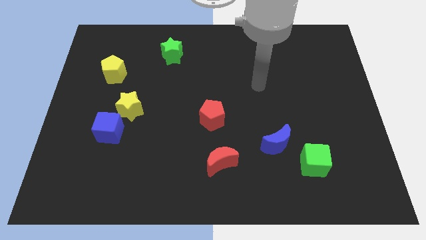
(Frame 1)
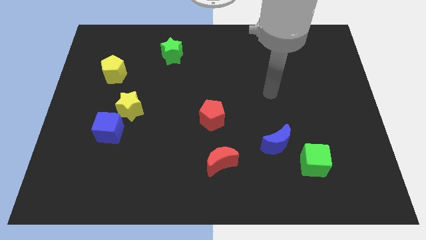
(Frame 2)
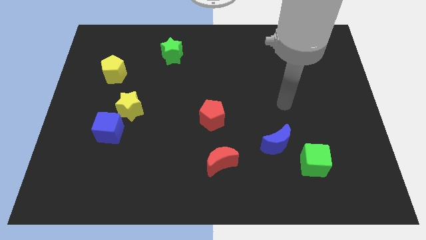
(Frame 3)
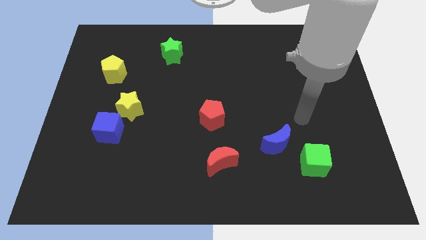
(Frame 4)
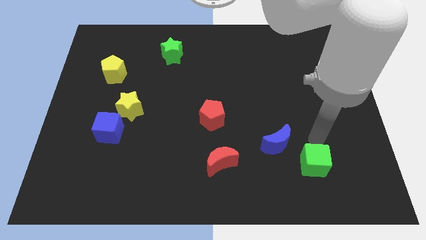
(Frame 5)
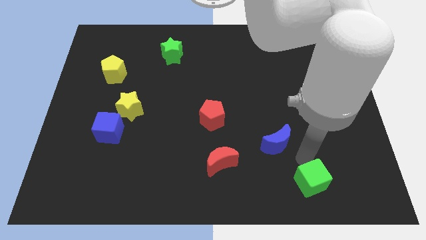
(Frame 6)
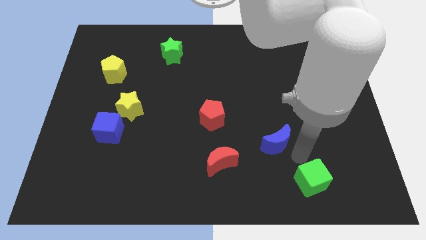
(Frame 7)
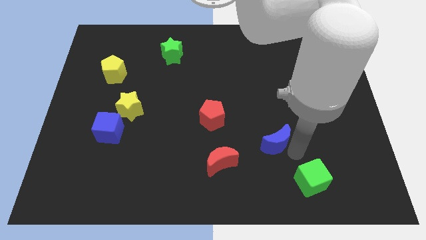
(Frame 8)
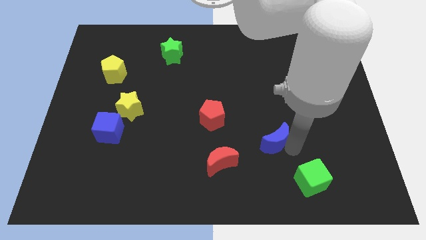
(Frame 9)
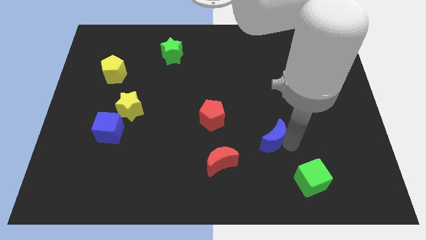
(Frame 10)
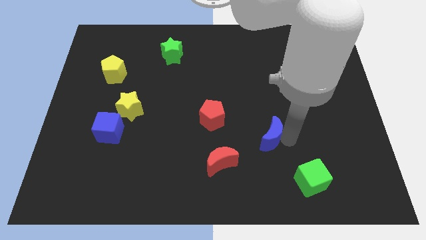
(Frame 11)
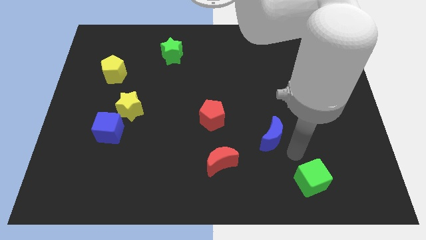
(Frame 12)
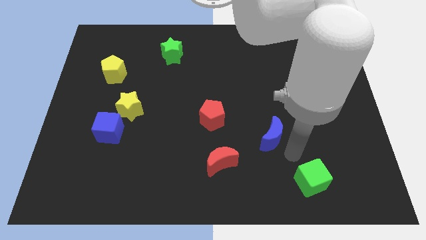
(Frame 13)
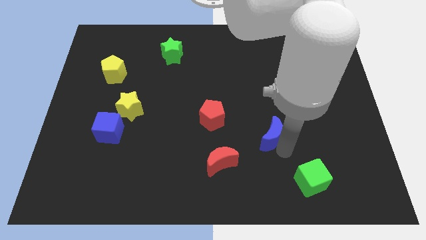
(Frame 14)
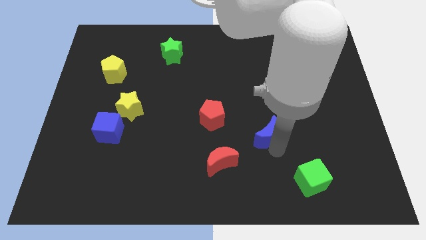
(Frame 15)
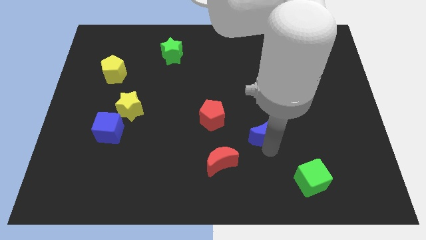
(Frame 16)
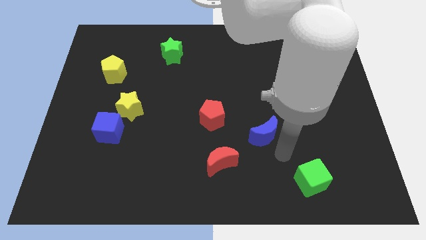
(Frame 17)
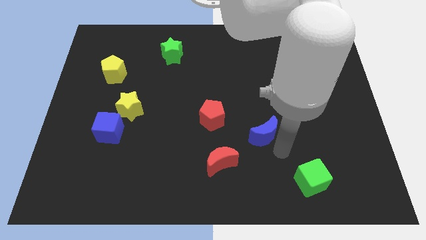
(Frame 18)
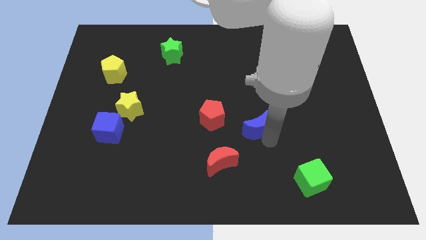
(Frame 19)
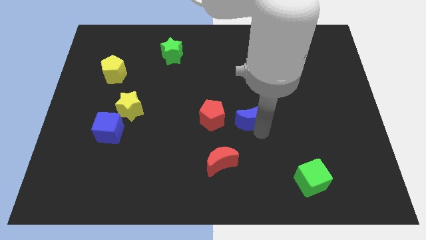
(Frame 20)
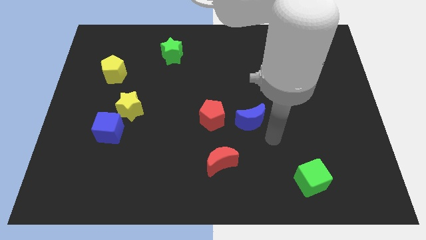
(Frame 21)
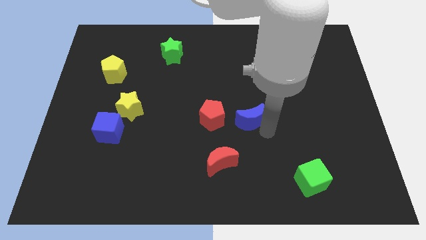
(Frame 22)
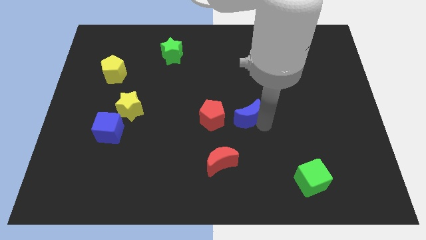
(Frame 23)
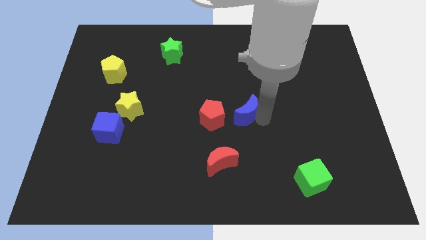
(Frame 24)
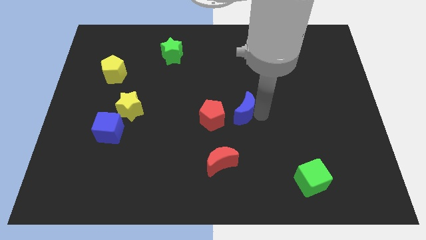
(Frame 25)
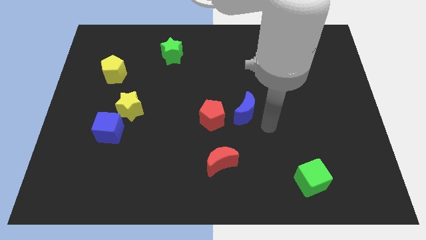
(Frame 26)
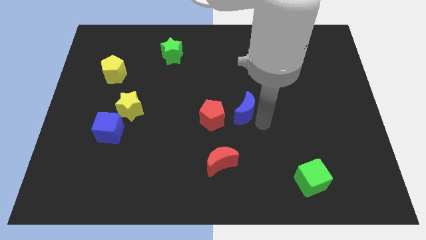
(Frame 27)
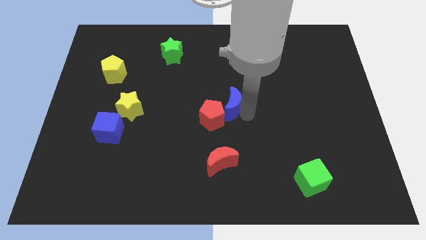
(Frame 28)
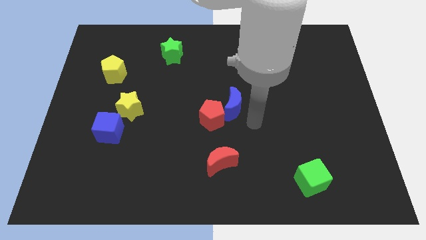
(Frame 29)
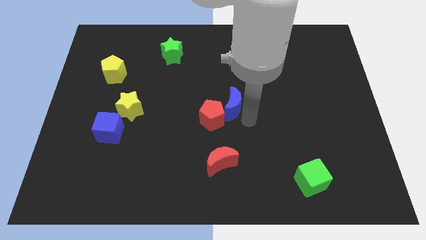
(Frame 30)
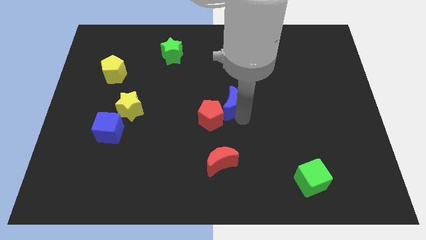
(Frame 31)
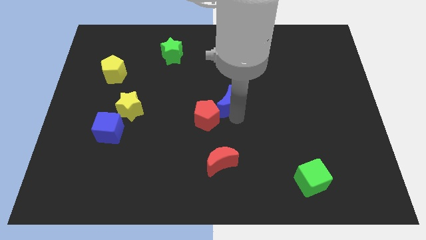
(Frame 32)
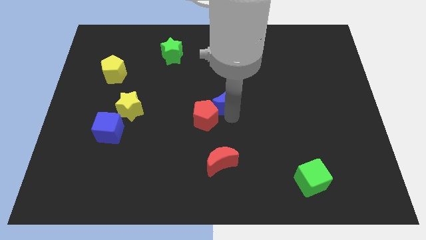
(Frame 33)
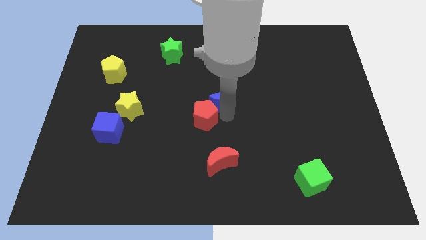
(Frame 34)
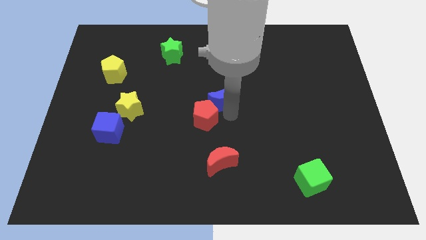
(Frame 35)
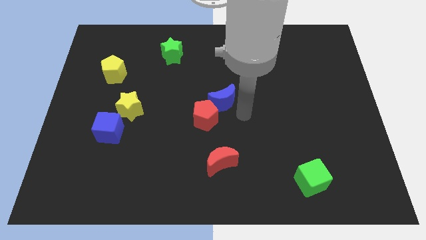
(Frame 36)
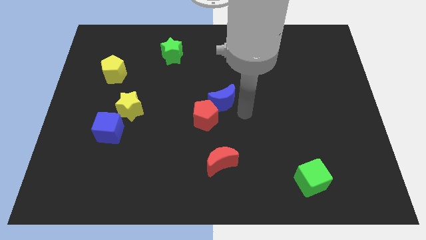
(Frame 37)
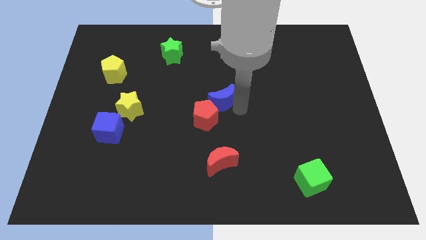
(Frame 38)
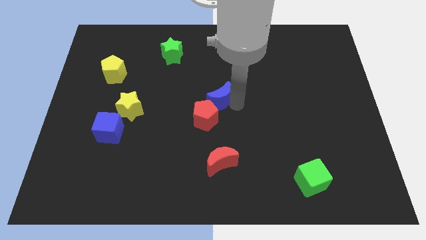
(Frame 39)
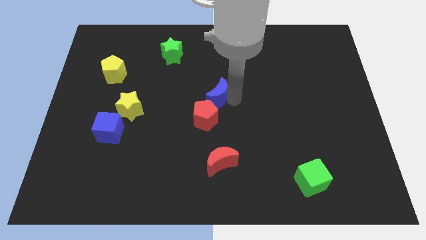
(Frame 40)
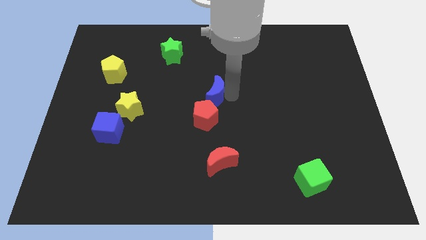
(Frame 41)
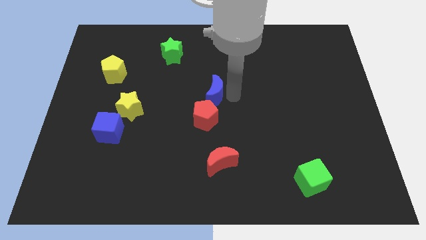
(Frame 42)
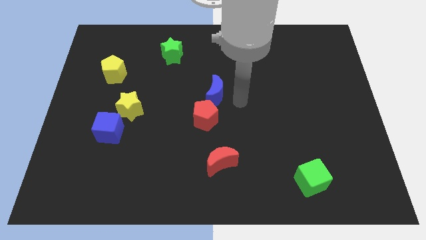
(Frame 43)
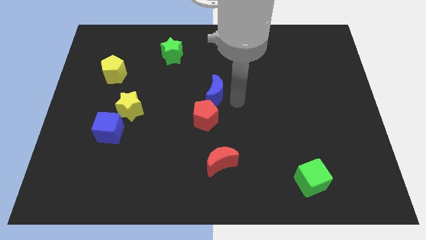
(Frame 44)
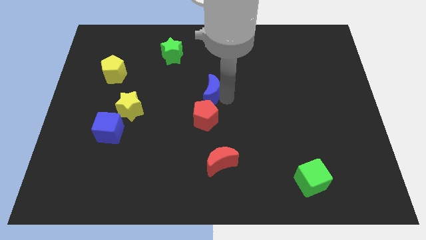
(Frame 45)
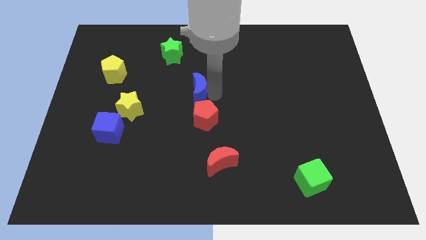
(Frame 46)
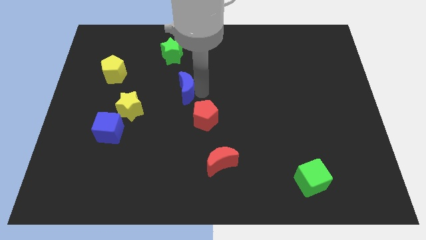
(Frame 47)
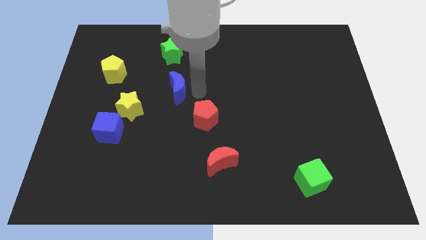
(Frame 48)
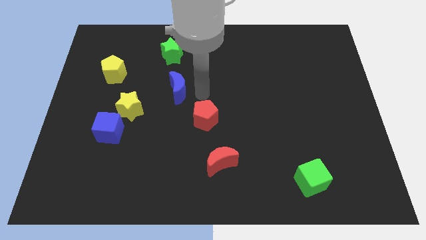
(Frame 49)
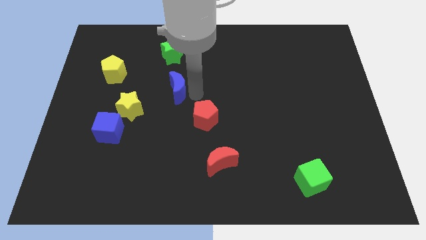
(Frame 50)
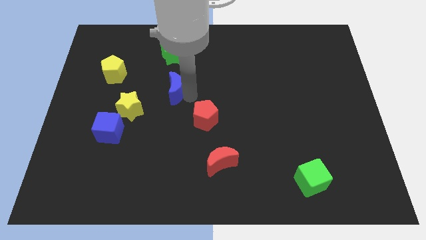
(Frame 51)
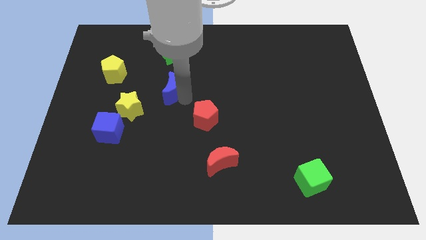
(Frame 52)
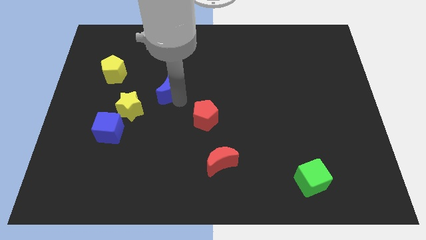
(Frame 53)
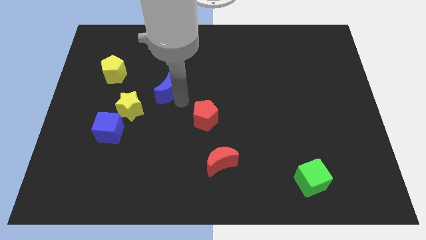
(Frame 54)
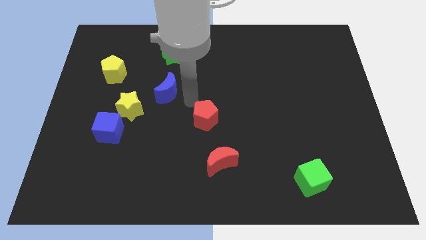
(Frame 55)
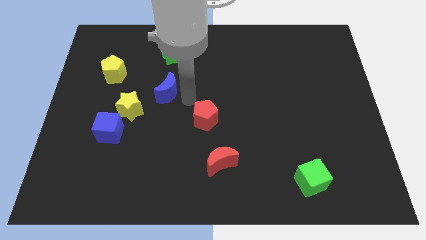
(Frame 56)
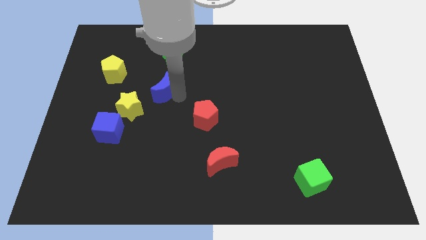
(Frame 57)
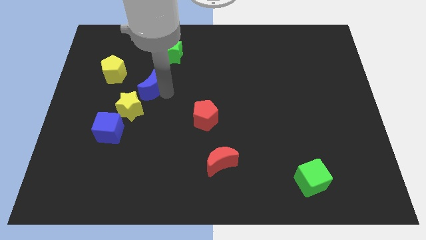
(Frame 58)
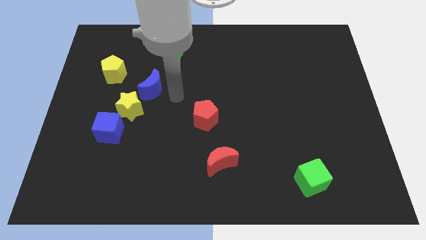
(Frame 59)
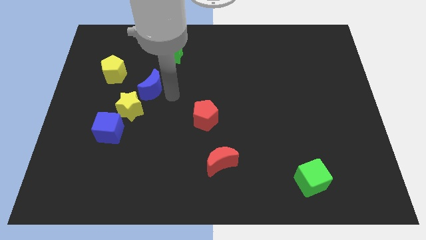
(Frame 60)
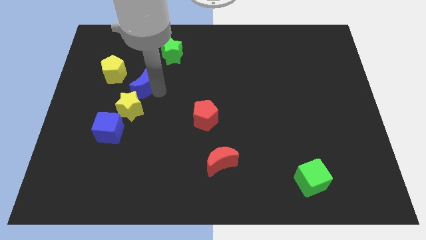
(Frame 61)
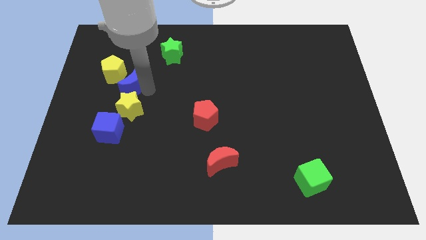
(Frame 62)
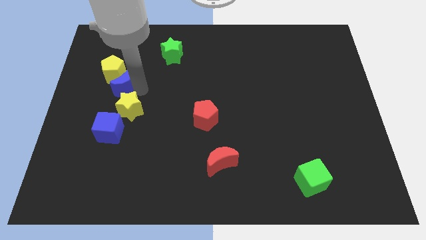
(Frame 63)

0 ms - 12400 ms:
push the blue moon next to the yellow pentagon

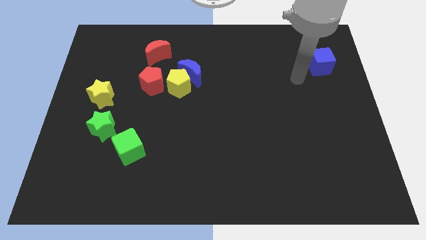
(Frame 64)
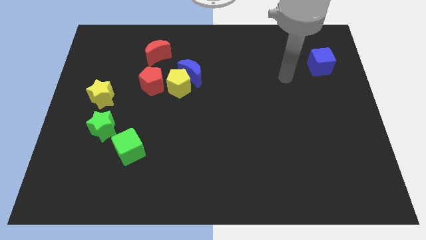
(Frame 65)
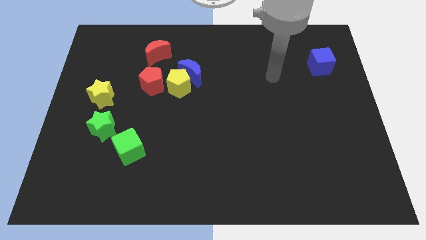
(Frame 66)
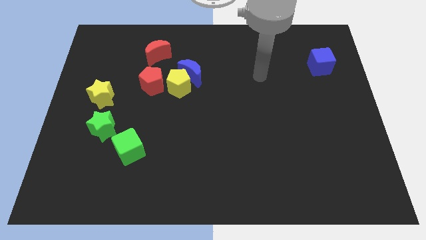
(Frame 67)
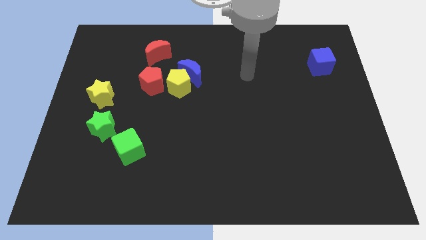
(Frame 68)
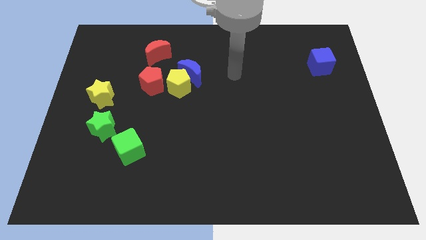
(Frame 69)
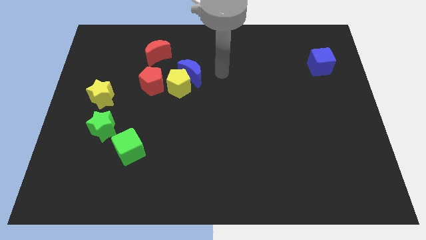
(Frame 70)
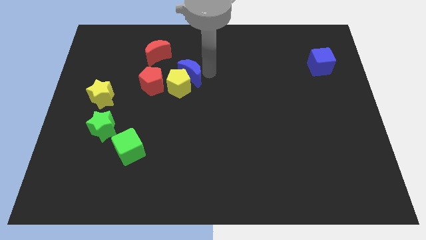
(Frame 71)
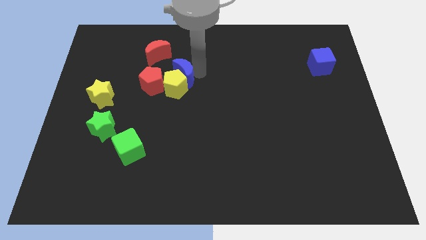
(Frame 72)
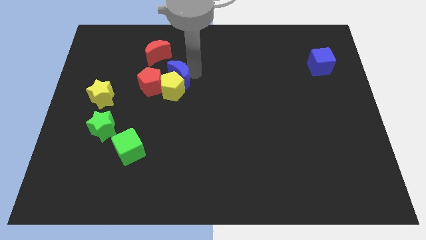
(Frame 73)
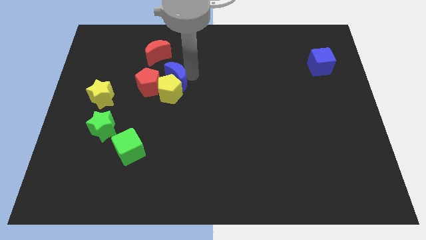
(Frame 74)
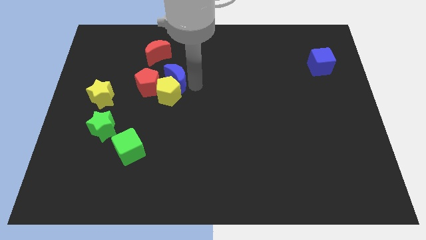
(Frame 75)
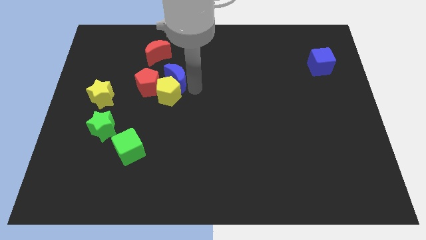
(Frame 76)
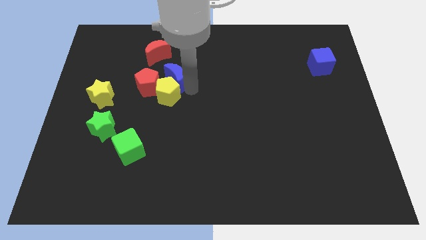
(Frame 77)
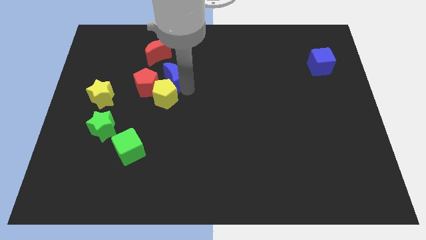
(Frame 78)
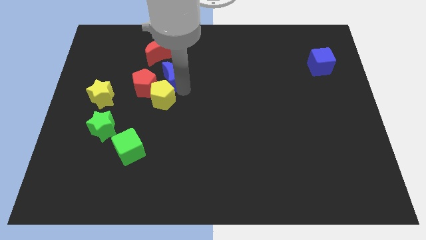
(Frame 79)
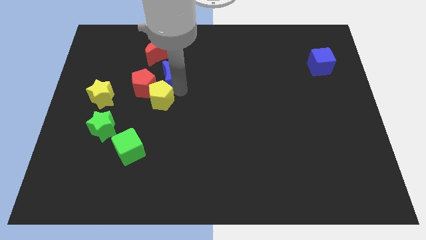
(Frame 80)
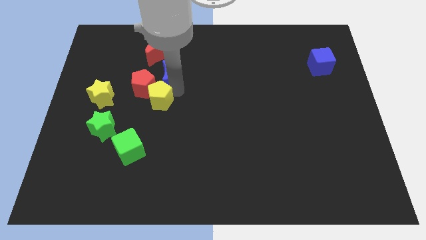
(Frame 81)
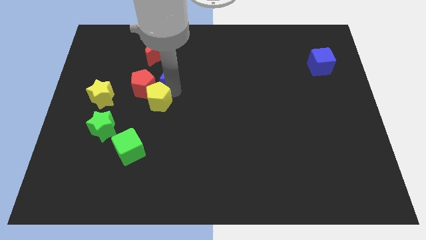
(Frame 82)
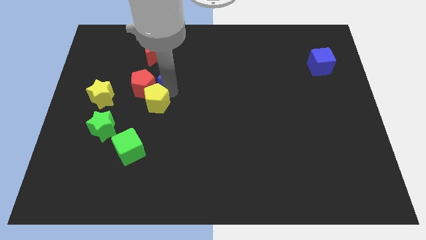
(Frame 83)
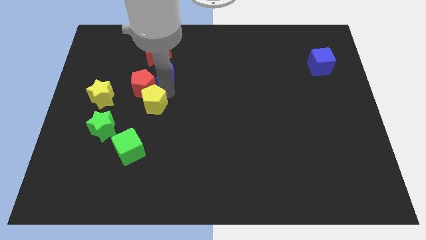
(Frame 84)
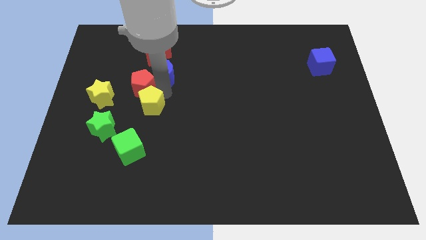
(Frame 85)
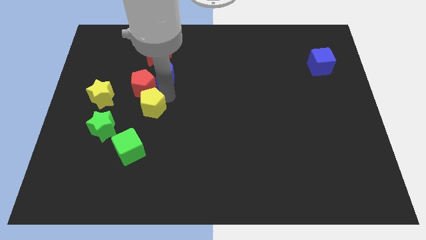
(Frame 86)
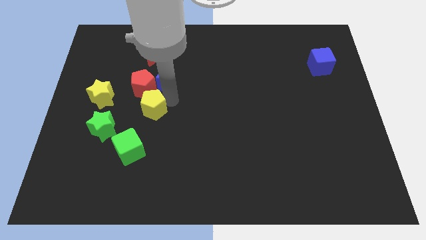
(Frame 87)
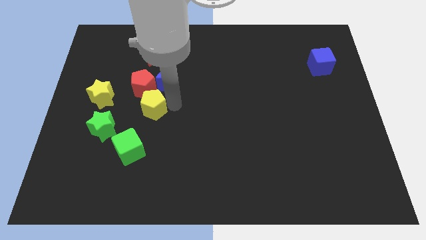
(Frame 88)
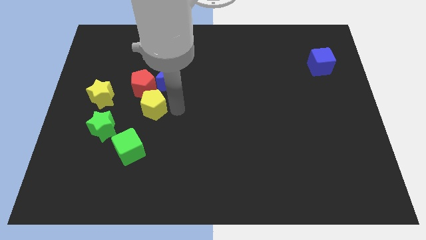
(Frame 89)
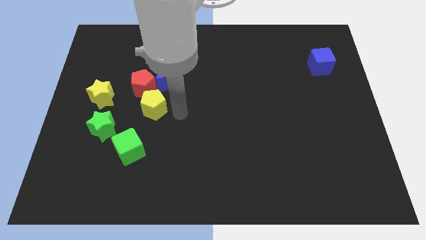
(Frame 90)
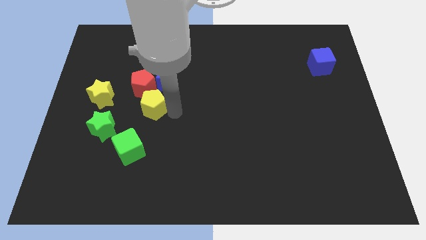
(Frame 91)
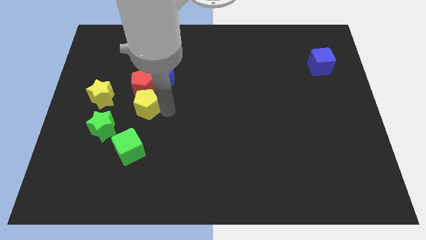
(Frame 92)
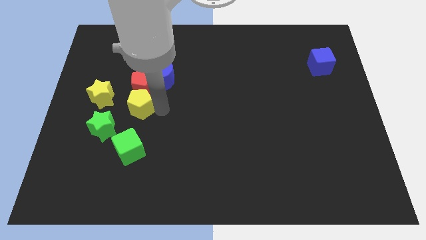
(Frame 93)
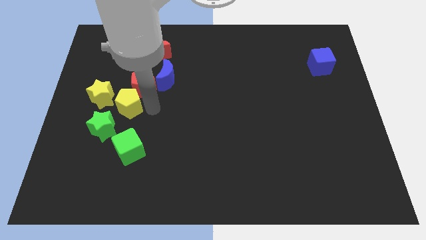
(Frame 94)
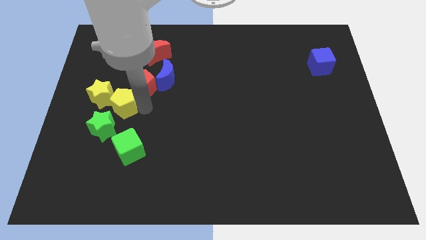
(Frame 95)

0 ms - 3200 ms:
slide the yellow pentagon close to the yellow star
